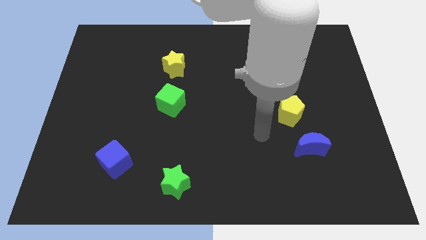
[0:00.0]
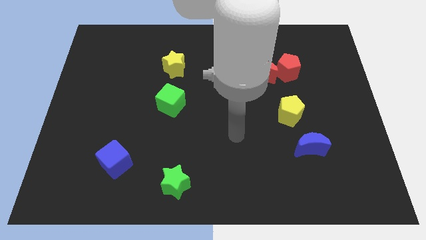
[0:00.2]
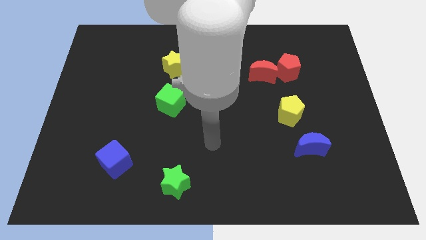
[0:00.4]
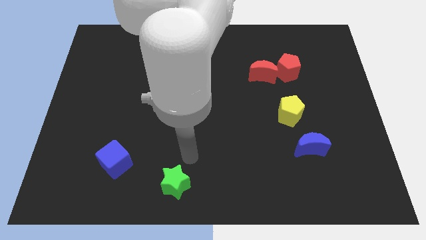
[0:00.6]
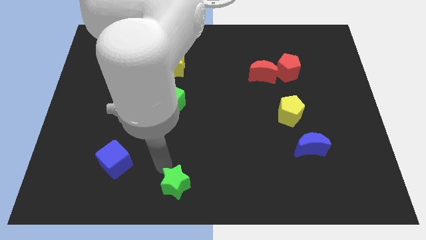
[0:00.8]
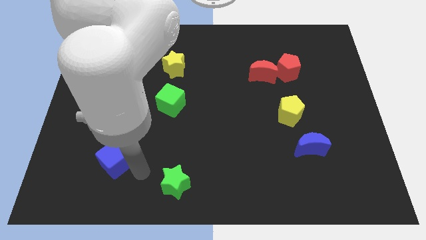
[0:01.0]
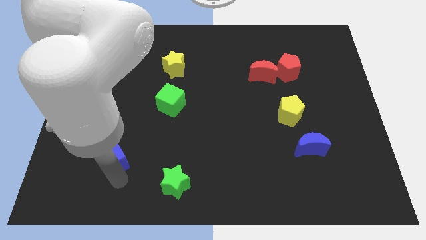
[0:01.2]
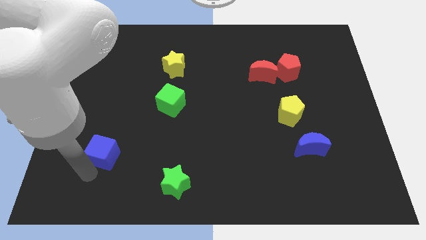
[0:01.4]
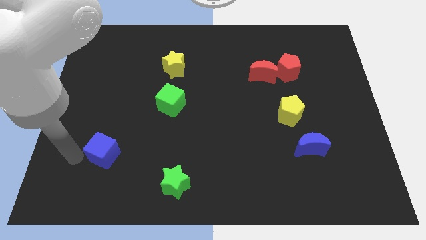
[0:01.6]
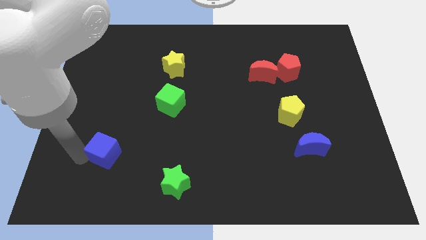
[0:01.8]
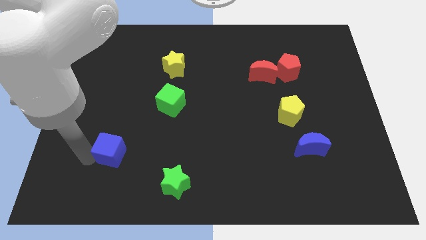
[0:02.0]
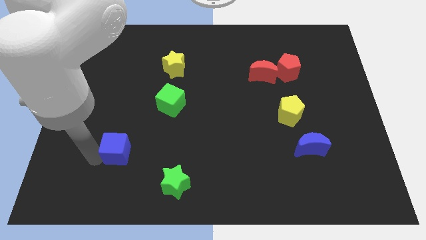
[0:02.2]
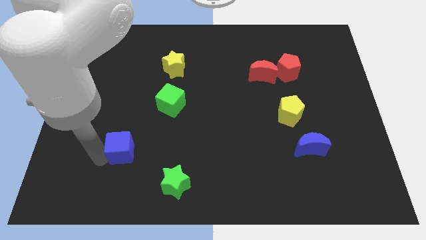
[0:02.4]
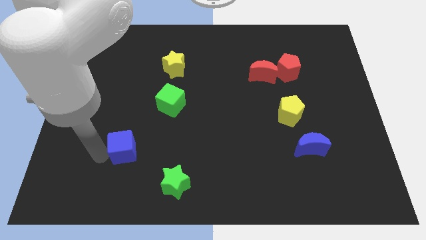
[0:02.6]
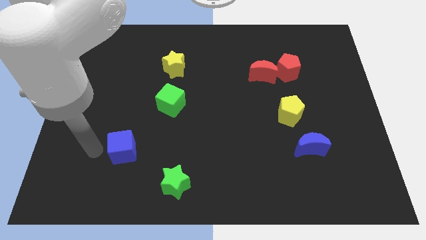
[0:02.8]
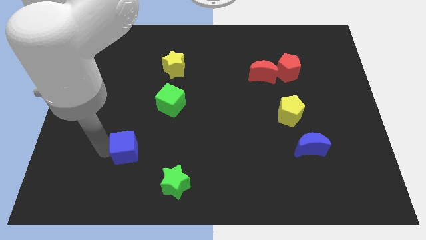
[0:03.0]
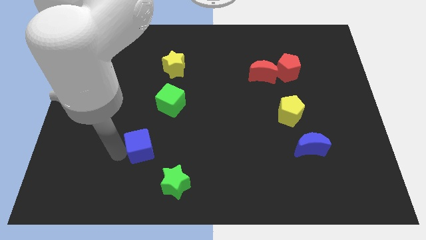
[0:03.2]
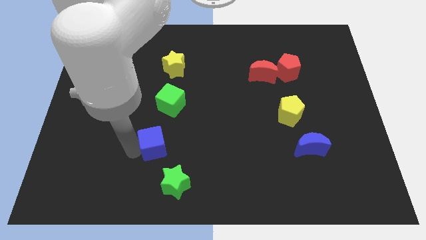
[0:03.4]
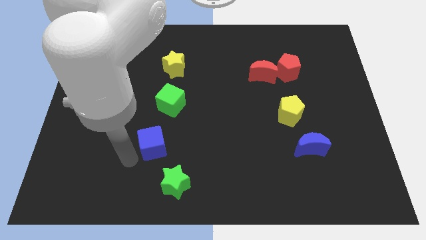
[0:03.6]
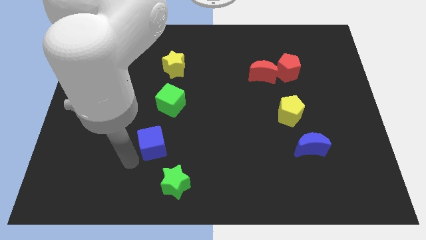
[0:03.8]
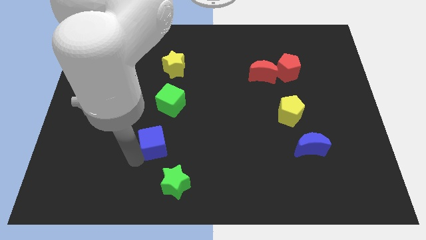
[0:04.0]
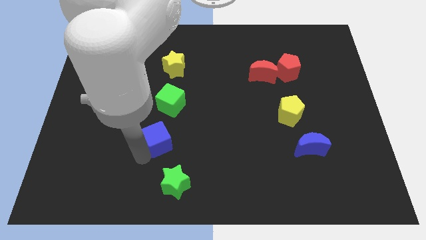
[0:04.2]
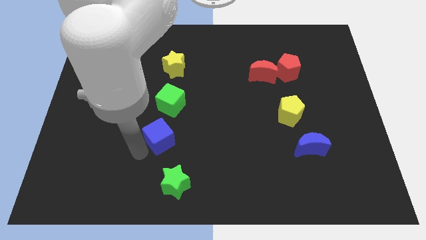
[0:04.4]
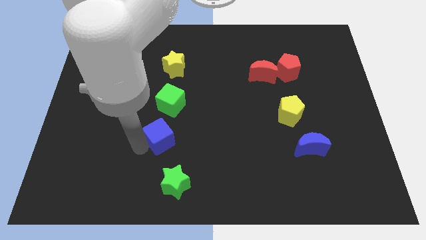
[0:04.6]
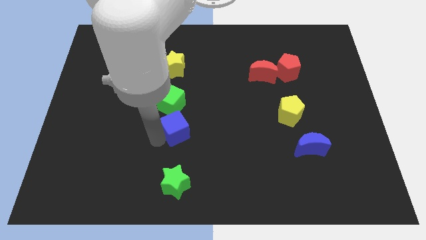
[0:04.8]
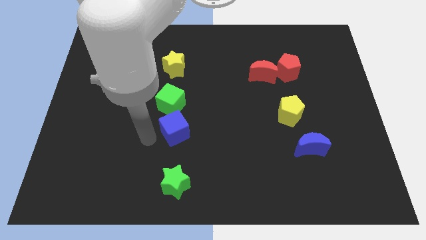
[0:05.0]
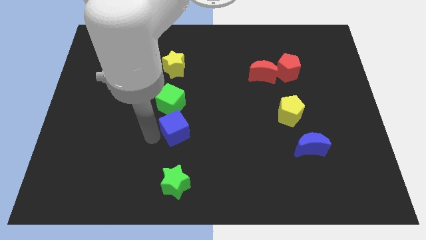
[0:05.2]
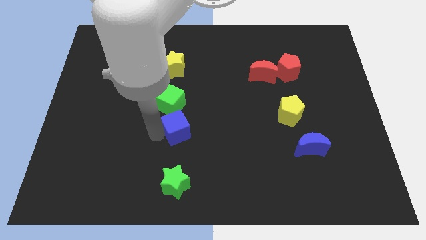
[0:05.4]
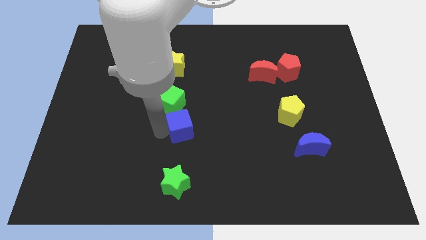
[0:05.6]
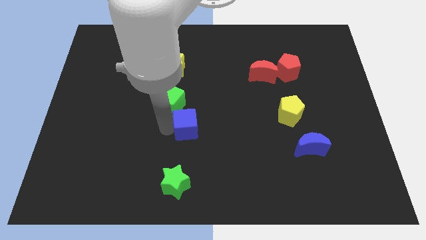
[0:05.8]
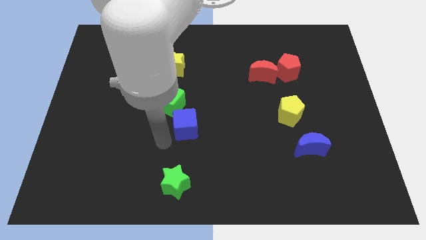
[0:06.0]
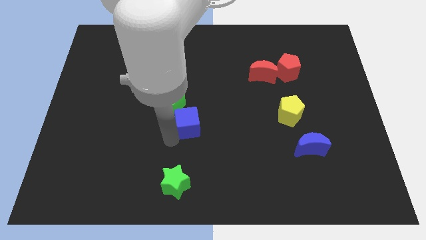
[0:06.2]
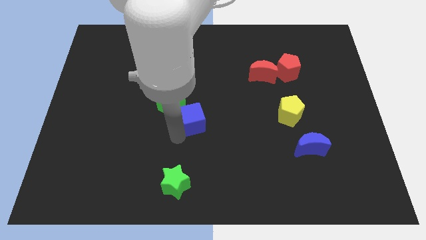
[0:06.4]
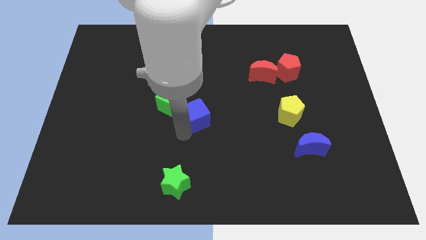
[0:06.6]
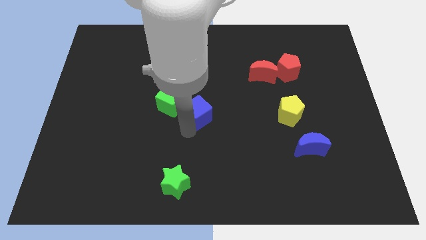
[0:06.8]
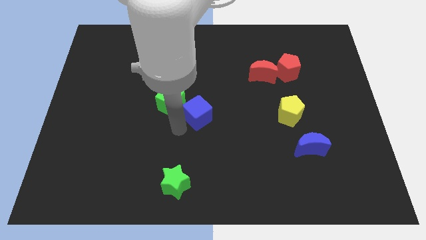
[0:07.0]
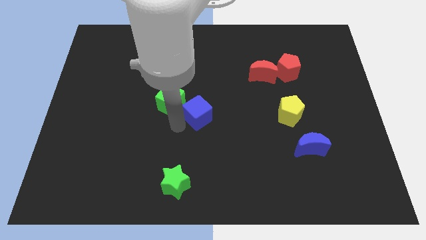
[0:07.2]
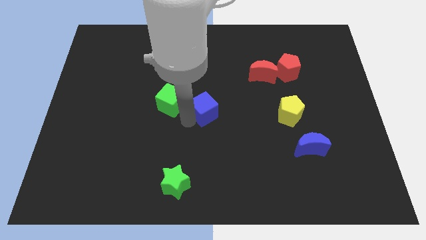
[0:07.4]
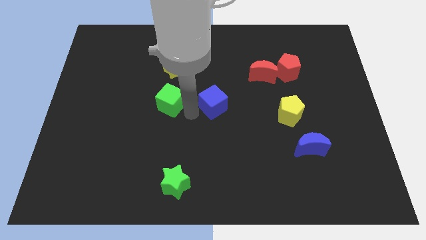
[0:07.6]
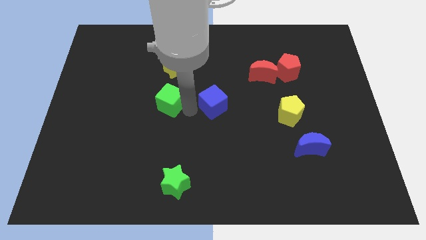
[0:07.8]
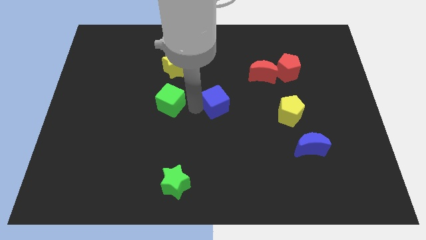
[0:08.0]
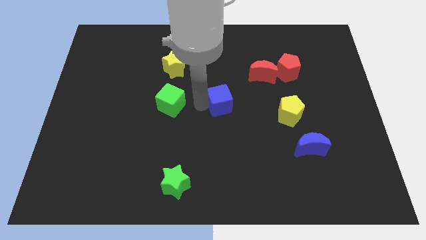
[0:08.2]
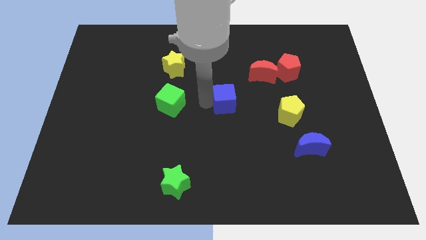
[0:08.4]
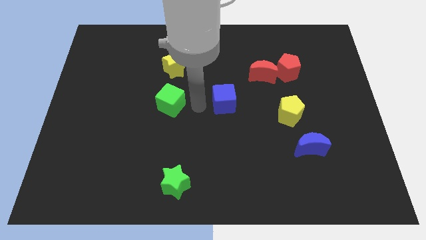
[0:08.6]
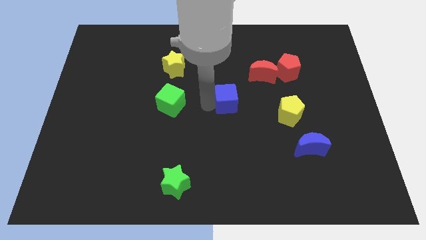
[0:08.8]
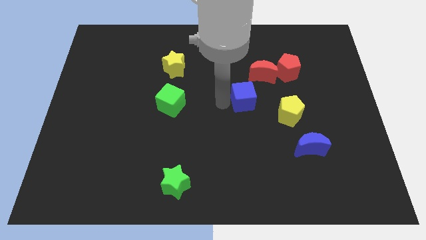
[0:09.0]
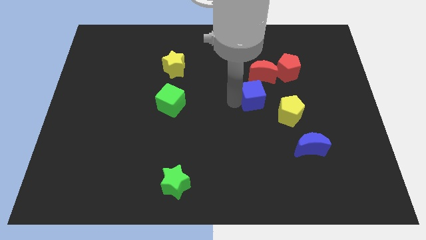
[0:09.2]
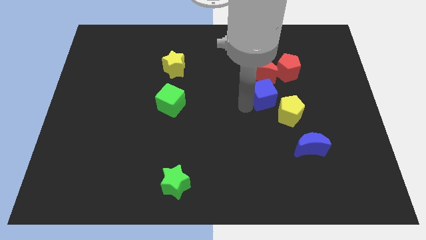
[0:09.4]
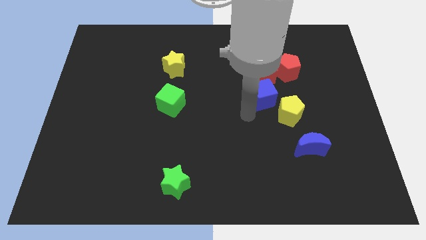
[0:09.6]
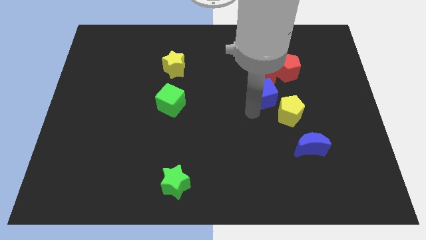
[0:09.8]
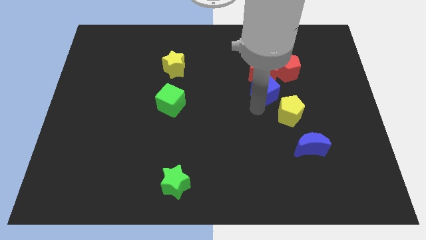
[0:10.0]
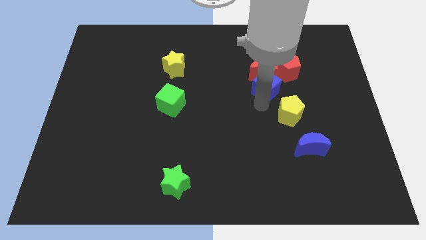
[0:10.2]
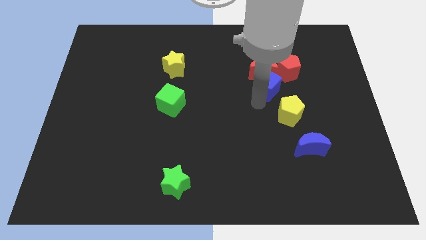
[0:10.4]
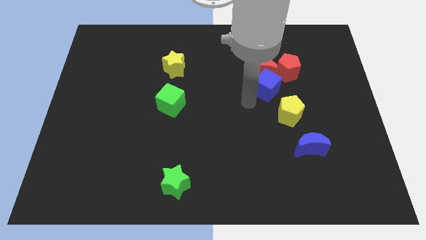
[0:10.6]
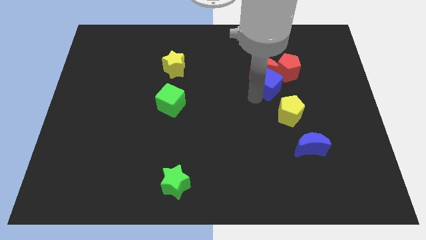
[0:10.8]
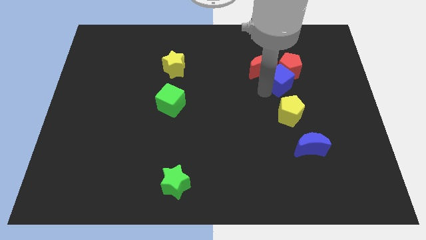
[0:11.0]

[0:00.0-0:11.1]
put the blue cube next to the red pentagon

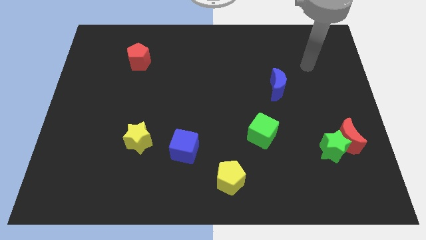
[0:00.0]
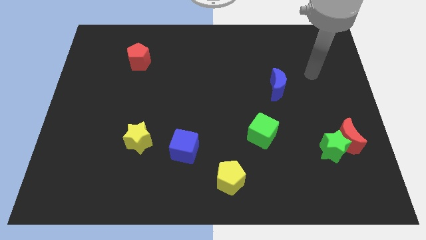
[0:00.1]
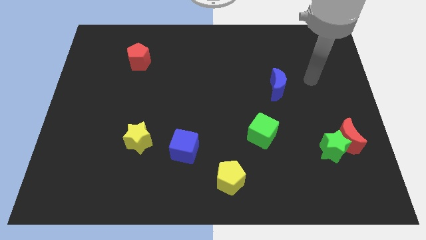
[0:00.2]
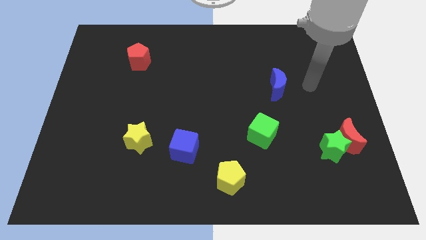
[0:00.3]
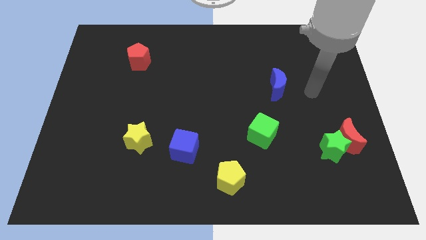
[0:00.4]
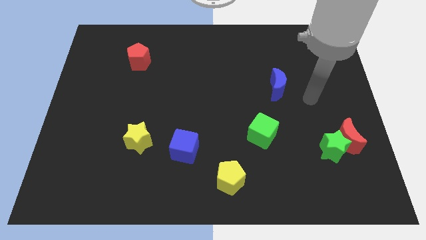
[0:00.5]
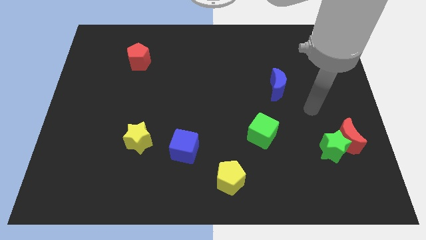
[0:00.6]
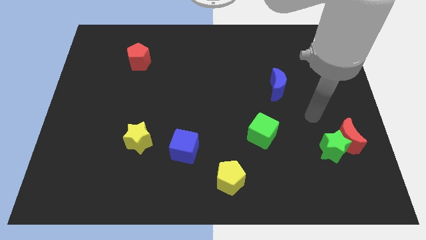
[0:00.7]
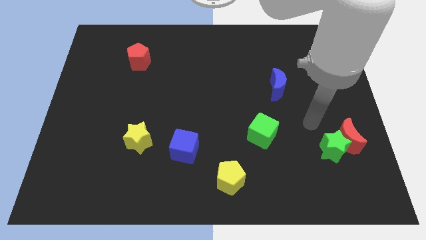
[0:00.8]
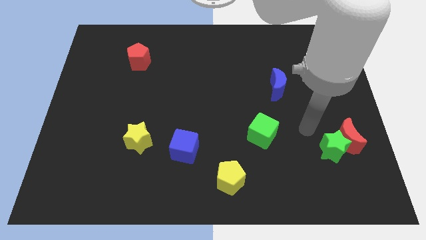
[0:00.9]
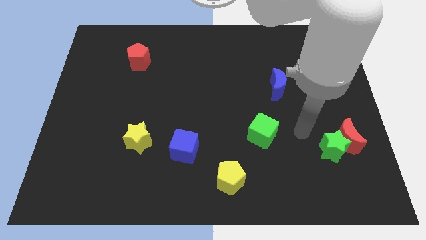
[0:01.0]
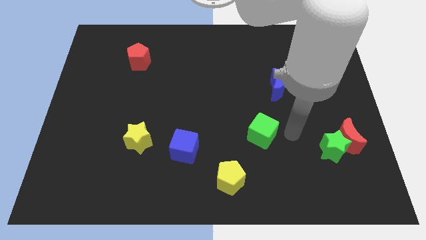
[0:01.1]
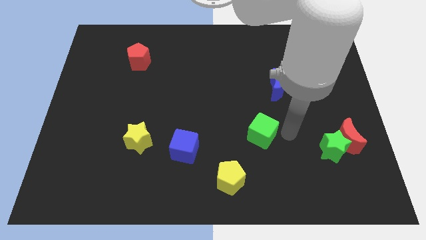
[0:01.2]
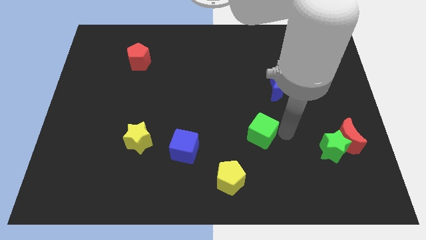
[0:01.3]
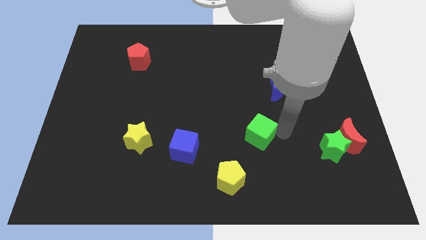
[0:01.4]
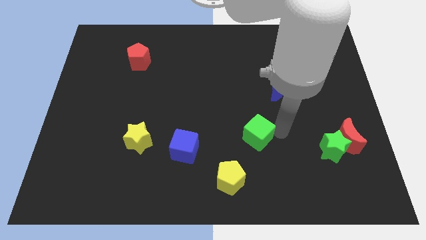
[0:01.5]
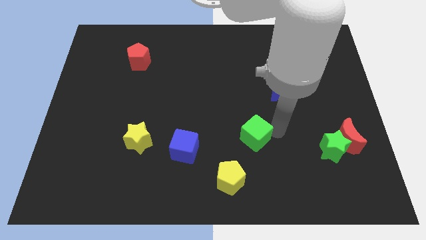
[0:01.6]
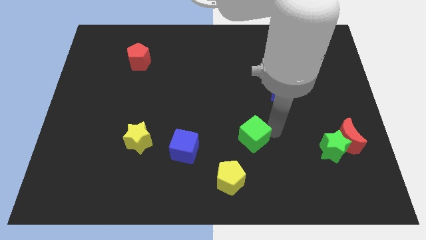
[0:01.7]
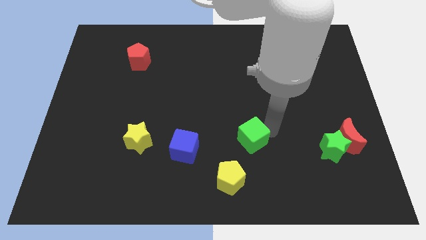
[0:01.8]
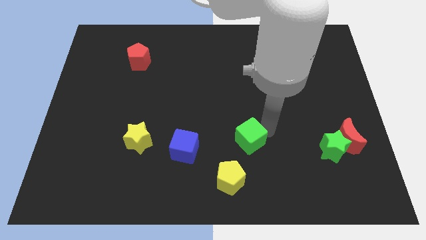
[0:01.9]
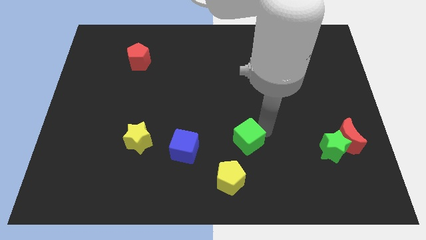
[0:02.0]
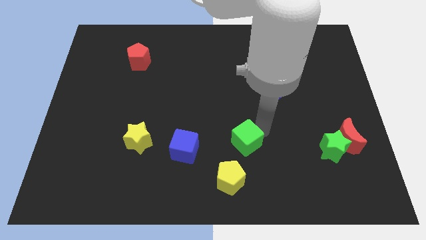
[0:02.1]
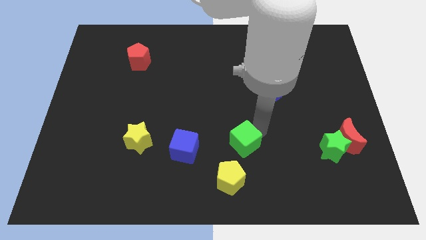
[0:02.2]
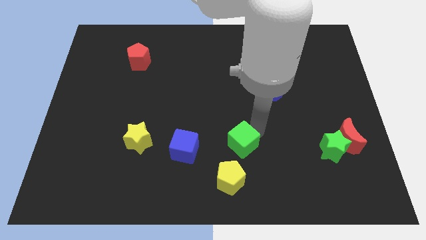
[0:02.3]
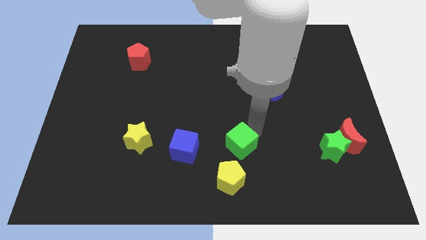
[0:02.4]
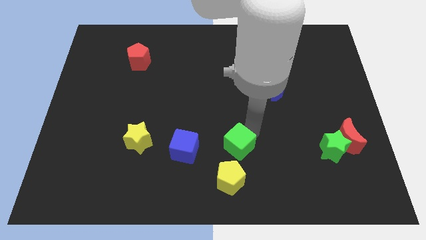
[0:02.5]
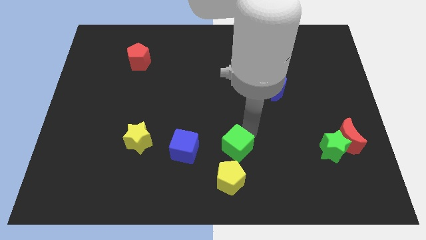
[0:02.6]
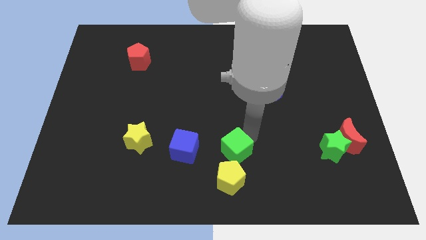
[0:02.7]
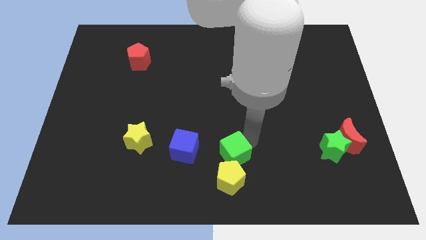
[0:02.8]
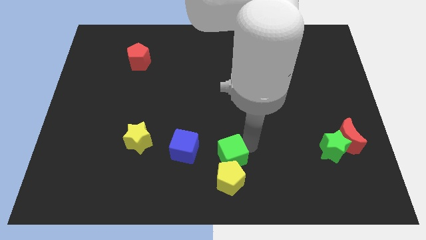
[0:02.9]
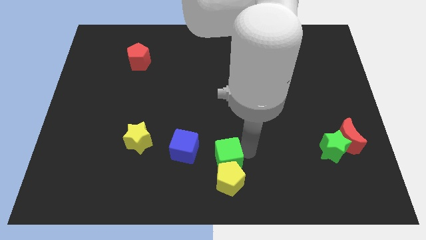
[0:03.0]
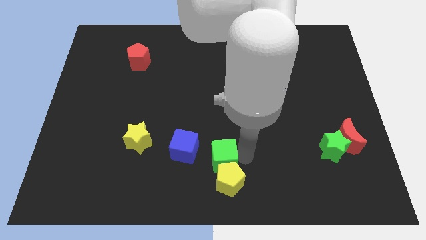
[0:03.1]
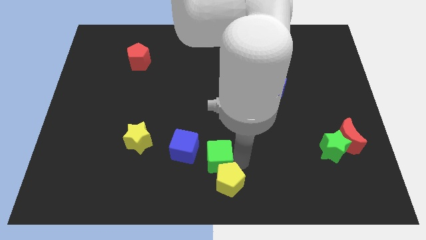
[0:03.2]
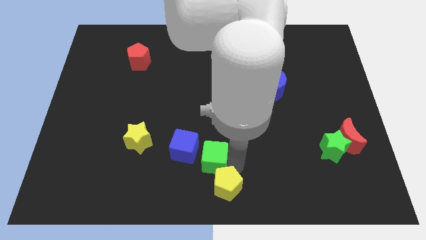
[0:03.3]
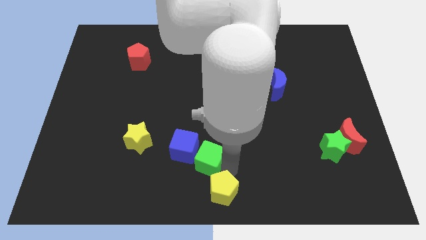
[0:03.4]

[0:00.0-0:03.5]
push the green cube to the blue cube
